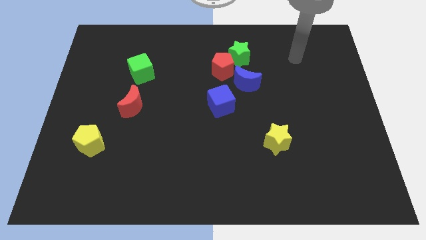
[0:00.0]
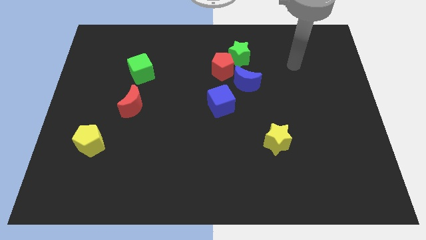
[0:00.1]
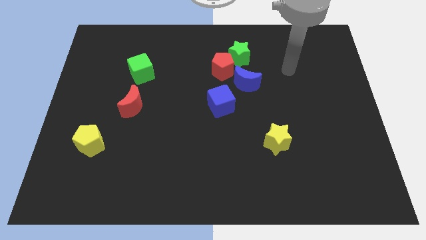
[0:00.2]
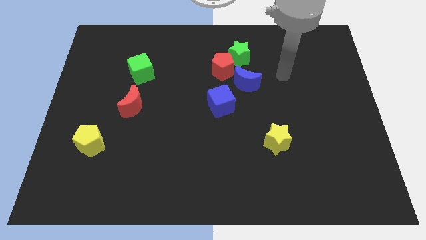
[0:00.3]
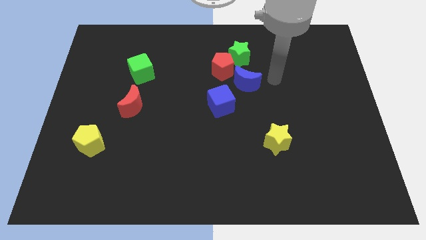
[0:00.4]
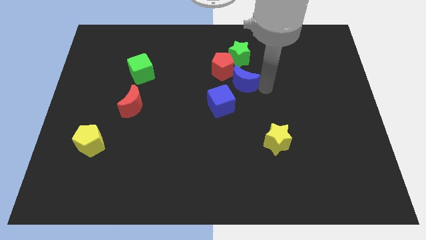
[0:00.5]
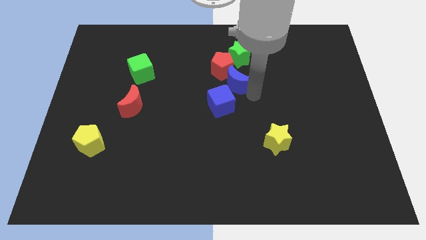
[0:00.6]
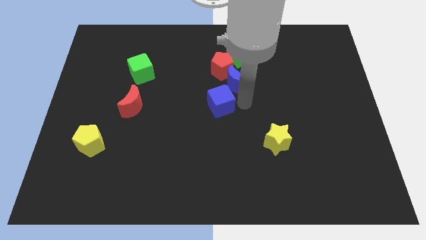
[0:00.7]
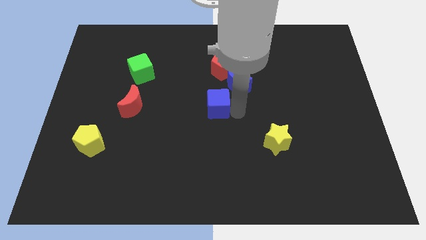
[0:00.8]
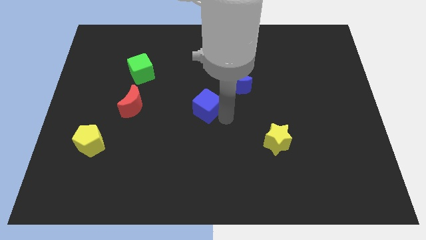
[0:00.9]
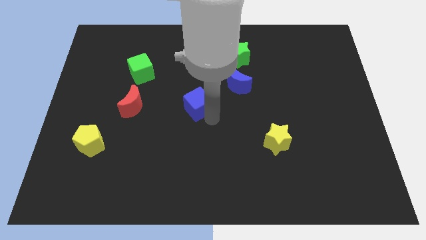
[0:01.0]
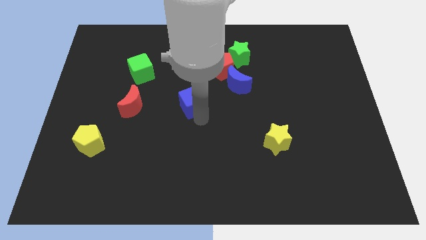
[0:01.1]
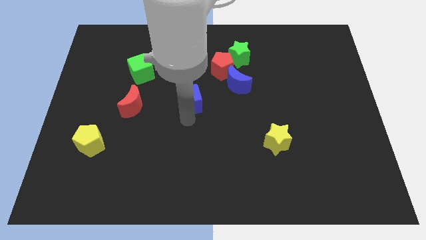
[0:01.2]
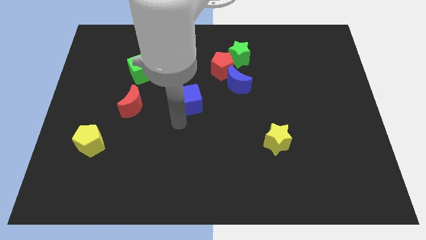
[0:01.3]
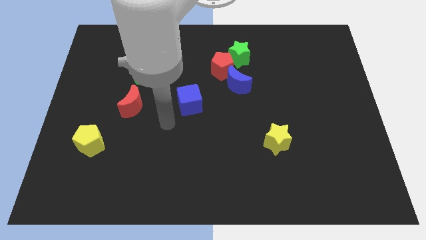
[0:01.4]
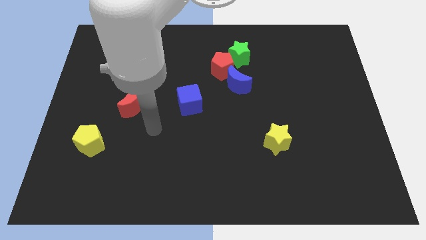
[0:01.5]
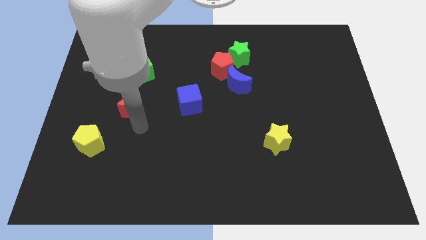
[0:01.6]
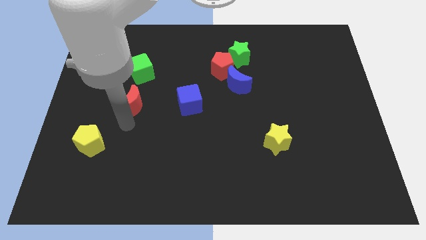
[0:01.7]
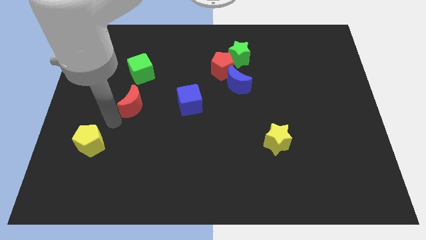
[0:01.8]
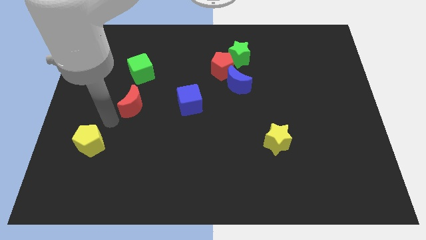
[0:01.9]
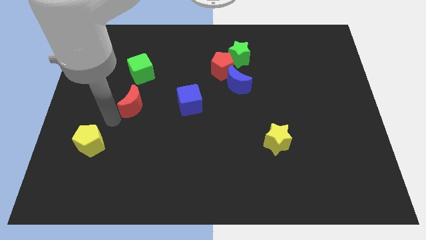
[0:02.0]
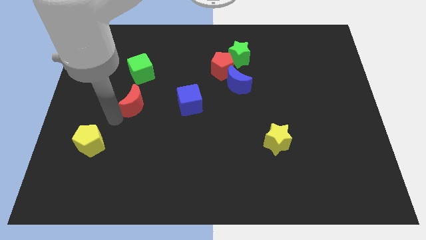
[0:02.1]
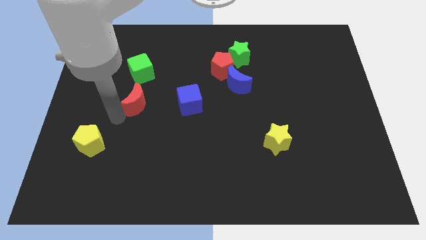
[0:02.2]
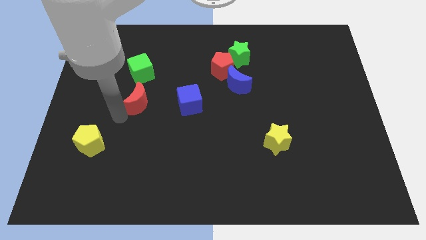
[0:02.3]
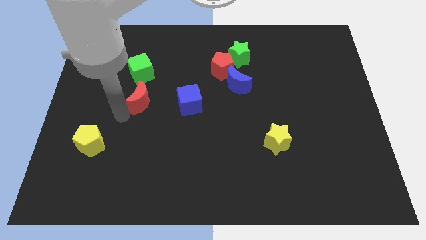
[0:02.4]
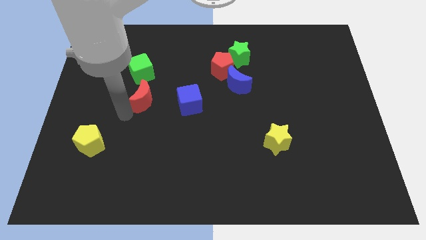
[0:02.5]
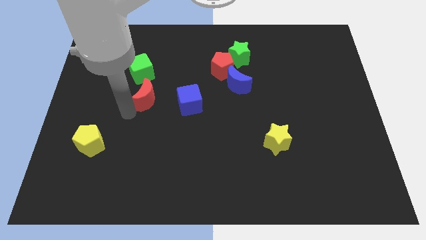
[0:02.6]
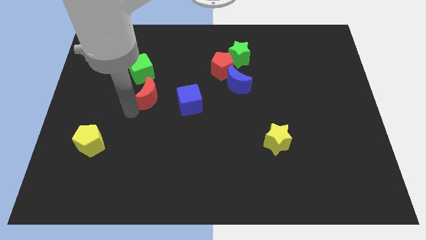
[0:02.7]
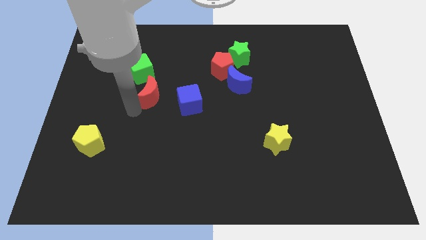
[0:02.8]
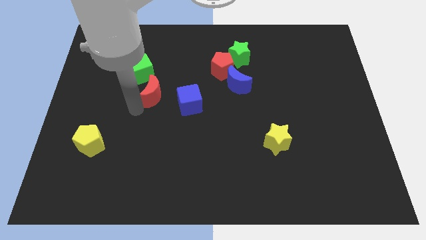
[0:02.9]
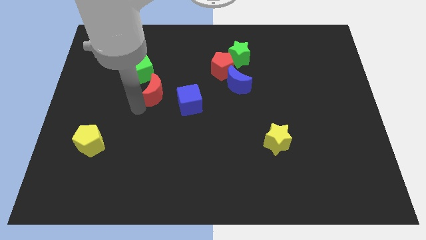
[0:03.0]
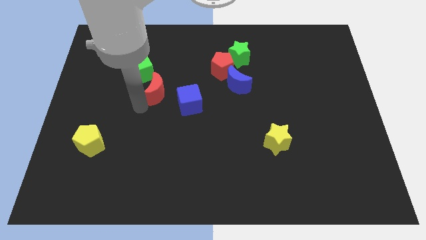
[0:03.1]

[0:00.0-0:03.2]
move the red moon a little bit diagonally upwards and to the right

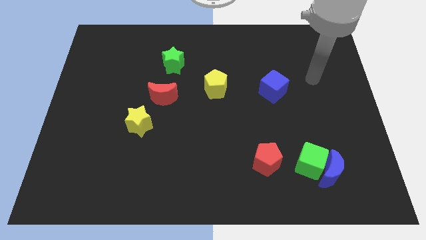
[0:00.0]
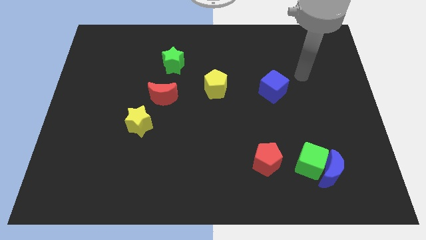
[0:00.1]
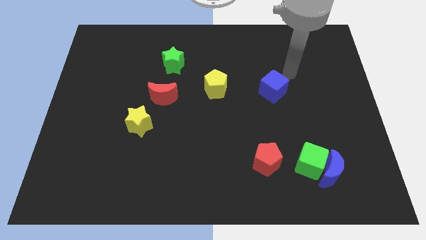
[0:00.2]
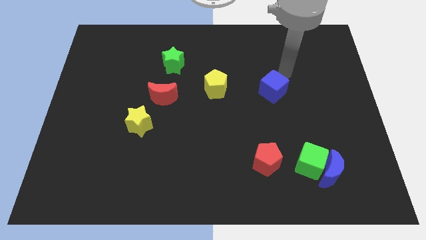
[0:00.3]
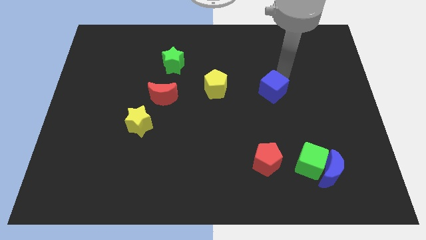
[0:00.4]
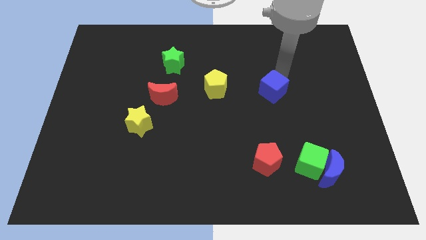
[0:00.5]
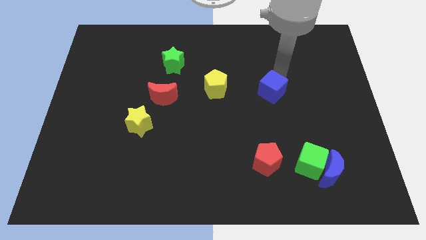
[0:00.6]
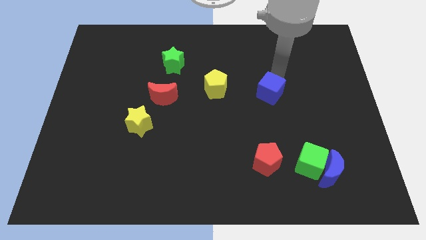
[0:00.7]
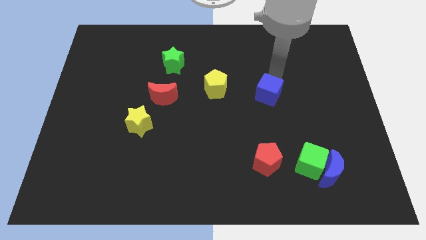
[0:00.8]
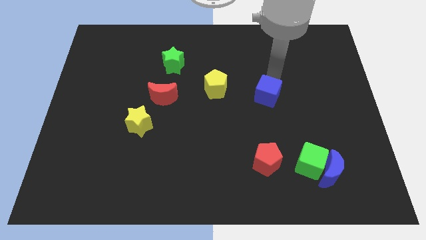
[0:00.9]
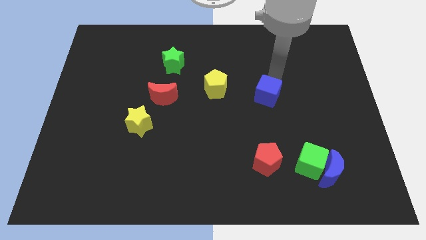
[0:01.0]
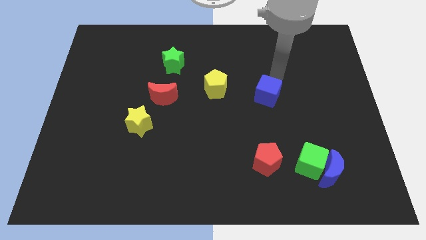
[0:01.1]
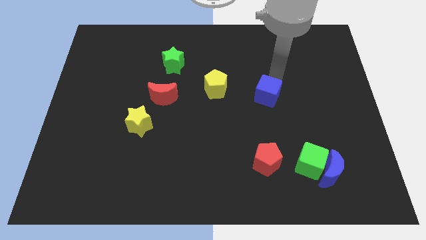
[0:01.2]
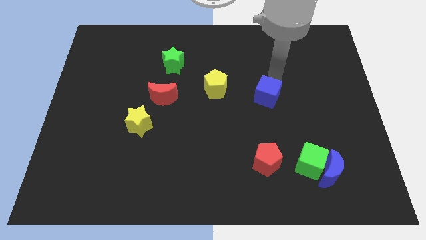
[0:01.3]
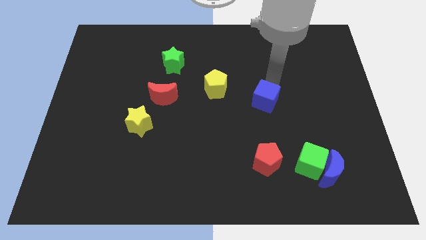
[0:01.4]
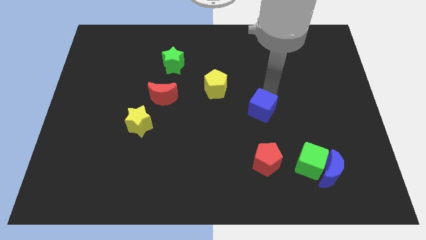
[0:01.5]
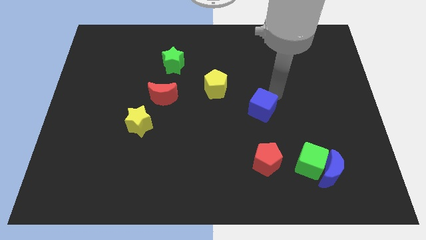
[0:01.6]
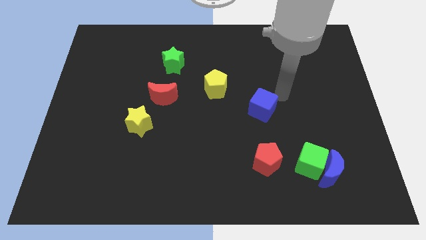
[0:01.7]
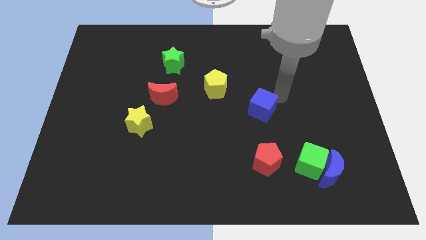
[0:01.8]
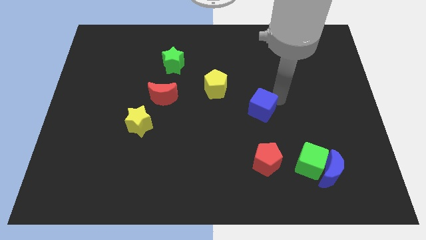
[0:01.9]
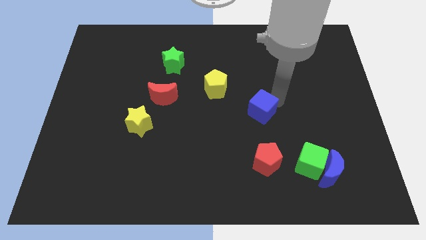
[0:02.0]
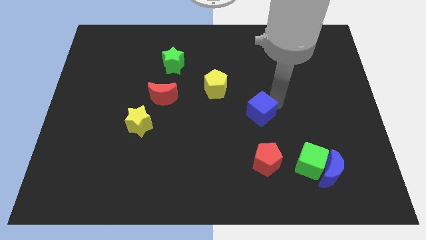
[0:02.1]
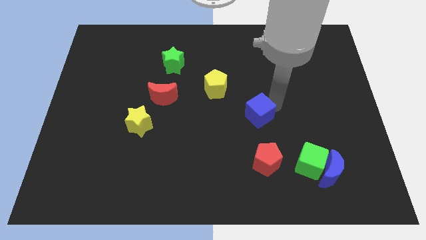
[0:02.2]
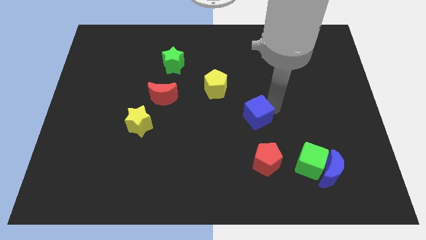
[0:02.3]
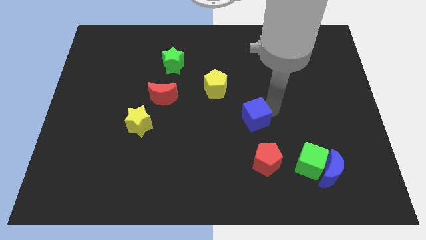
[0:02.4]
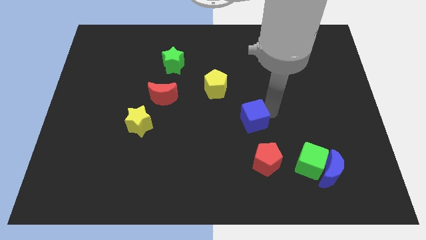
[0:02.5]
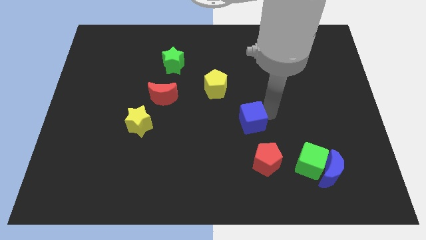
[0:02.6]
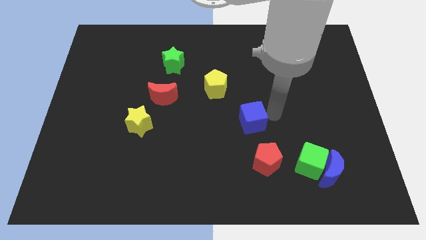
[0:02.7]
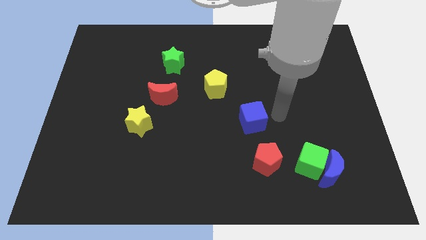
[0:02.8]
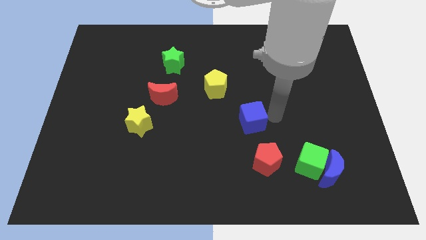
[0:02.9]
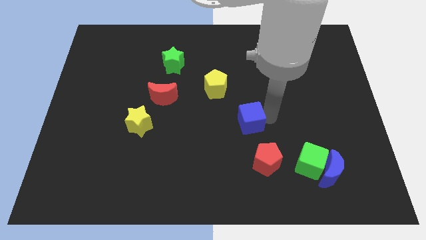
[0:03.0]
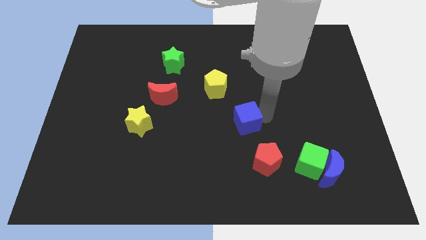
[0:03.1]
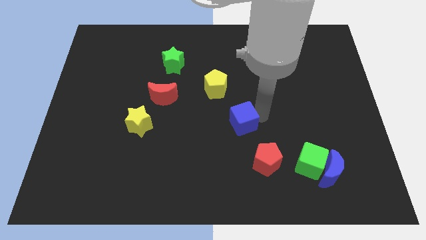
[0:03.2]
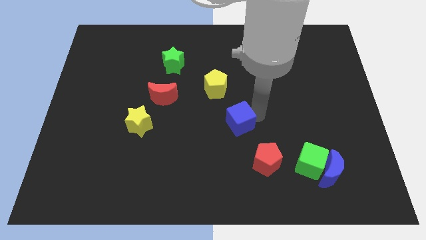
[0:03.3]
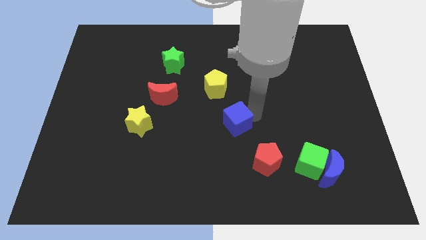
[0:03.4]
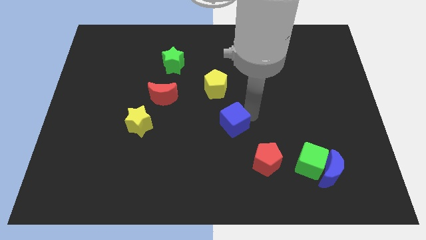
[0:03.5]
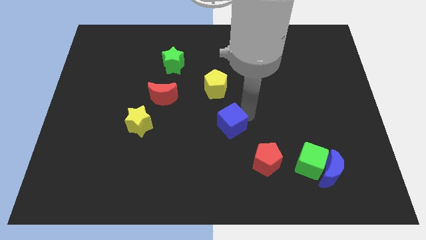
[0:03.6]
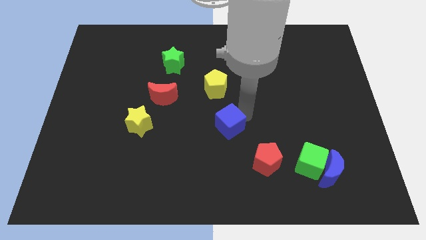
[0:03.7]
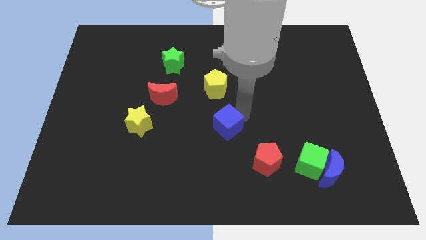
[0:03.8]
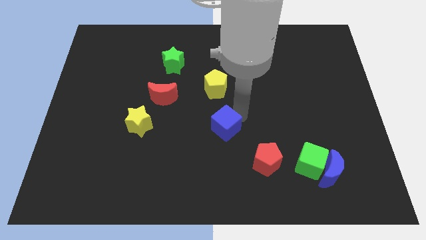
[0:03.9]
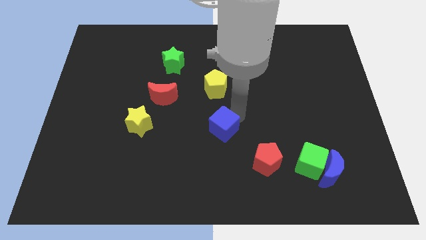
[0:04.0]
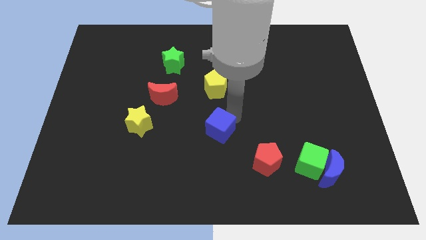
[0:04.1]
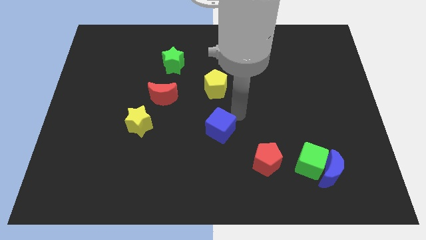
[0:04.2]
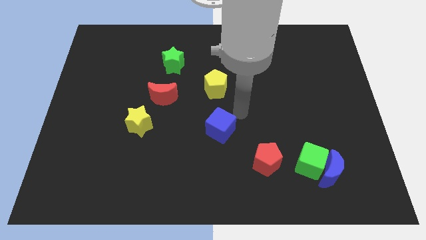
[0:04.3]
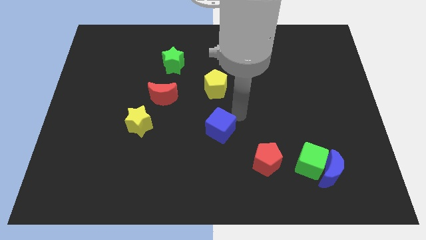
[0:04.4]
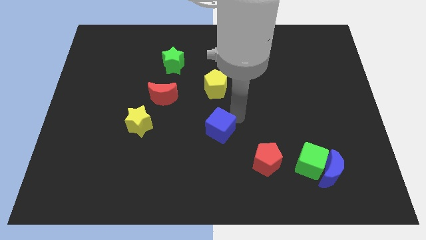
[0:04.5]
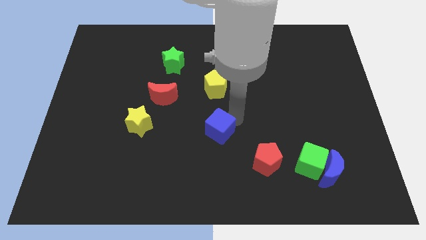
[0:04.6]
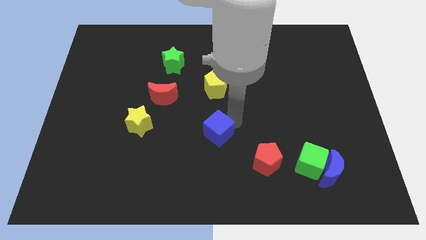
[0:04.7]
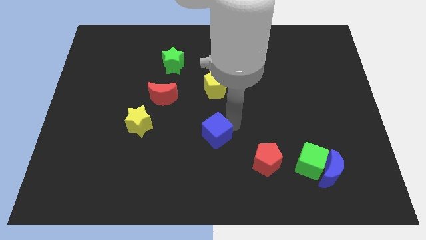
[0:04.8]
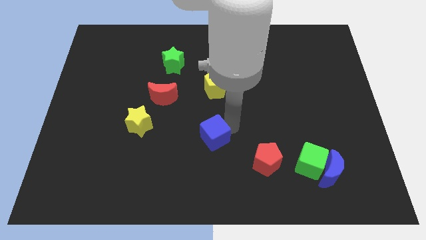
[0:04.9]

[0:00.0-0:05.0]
move the blue cube down and left
